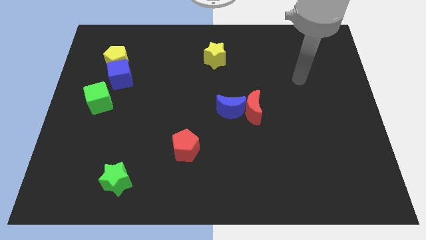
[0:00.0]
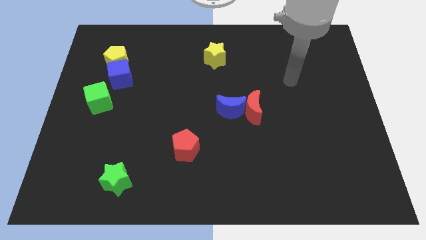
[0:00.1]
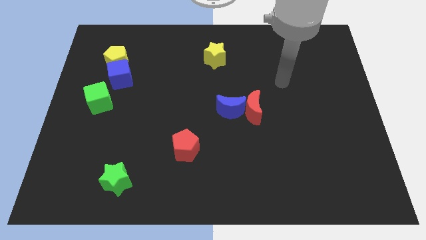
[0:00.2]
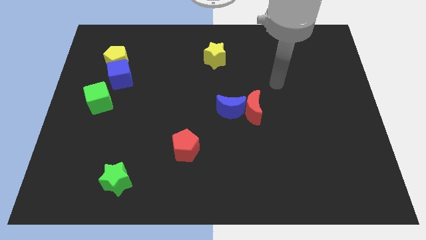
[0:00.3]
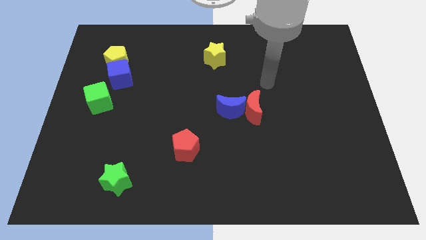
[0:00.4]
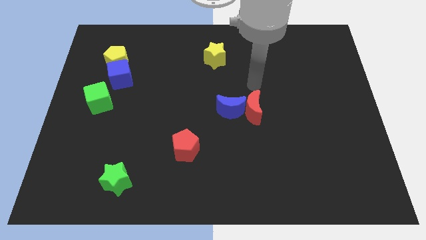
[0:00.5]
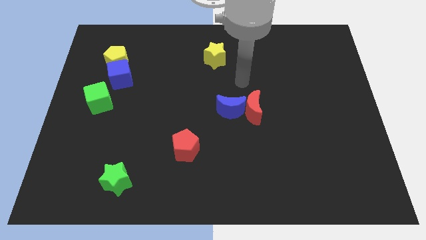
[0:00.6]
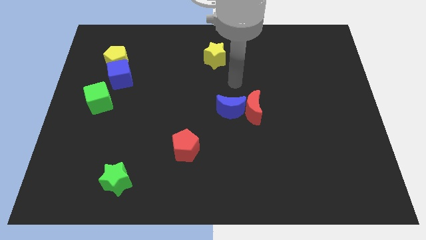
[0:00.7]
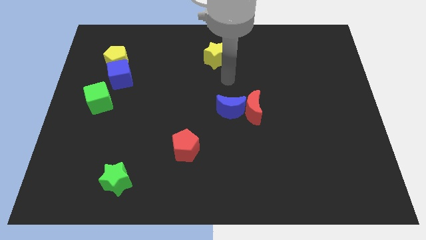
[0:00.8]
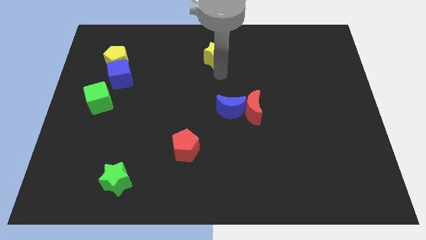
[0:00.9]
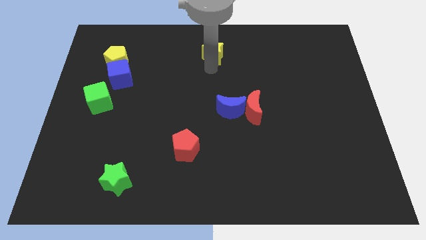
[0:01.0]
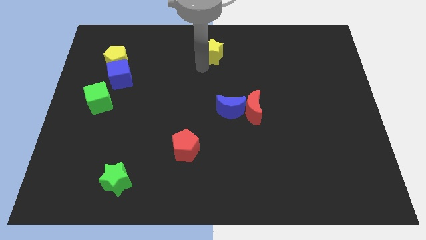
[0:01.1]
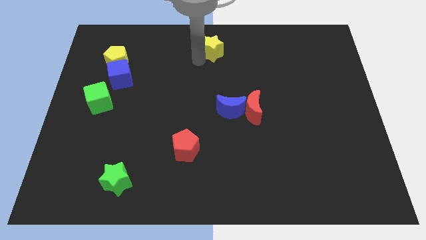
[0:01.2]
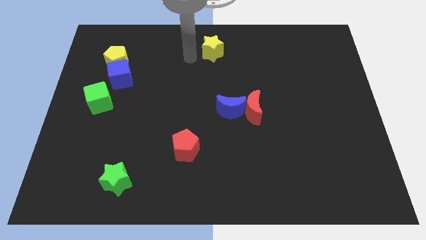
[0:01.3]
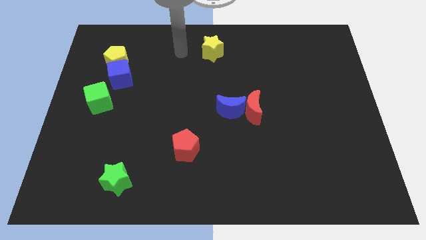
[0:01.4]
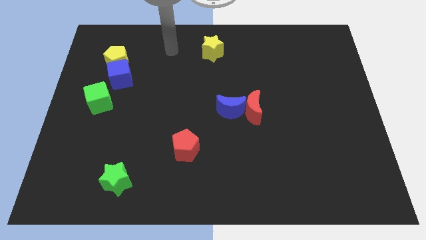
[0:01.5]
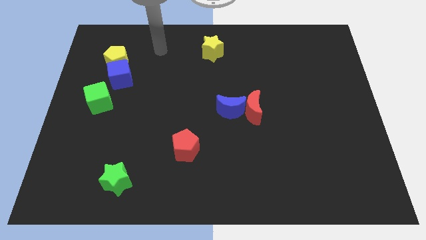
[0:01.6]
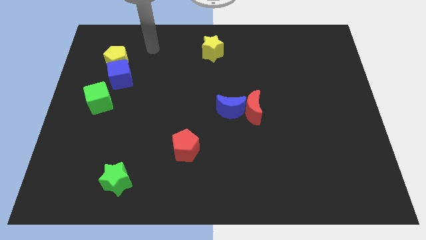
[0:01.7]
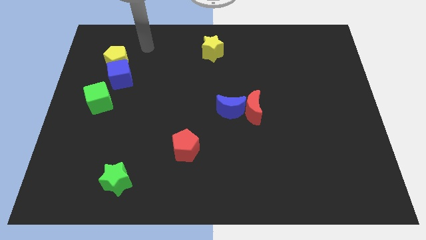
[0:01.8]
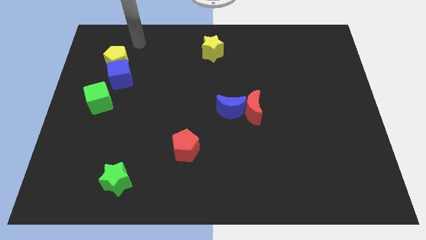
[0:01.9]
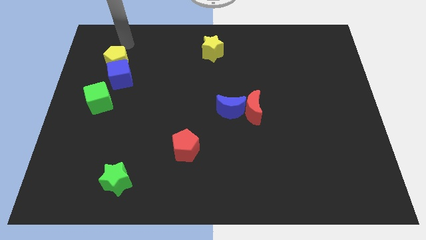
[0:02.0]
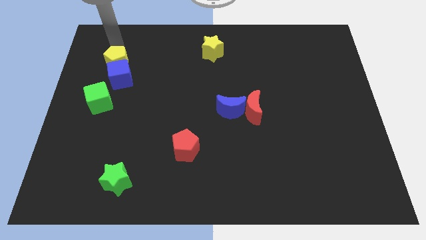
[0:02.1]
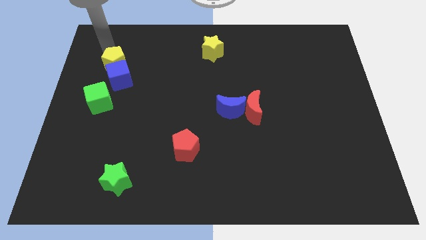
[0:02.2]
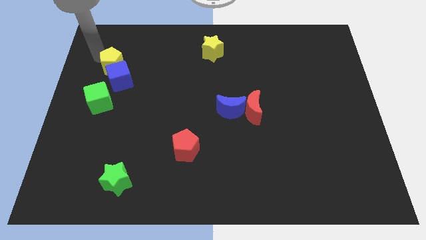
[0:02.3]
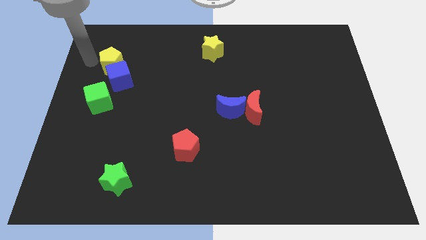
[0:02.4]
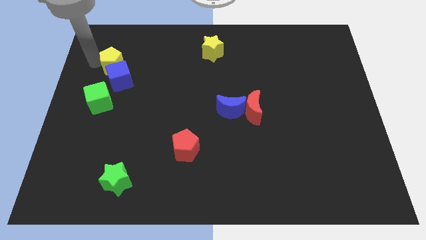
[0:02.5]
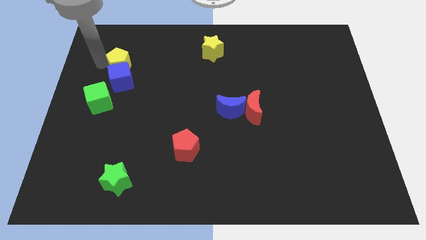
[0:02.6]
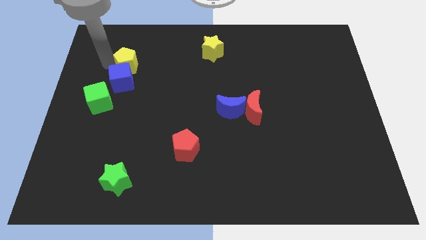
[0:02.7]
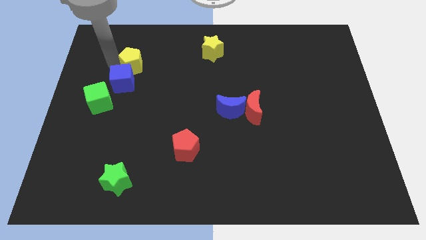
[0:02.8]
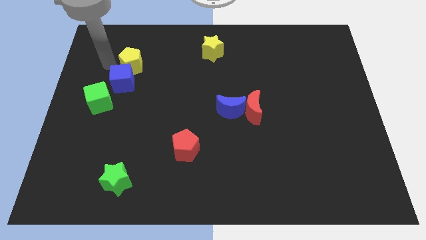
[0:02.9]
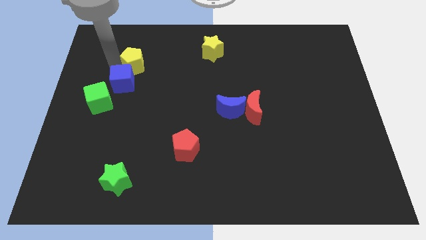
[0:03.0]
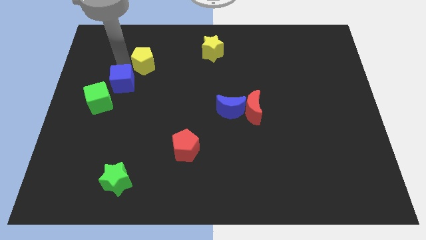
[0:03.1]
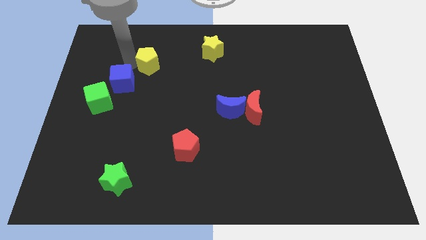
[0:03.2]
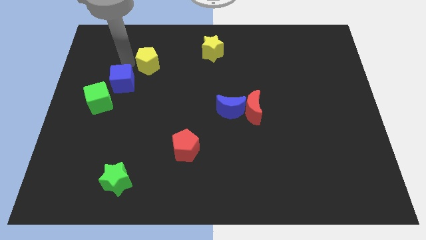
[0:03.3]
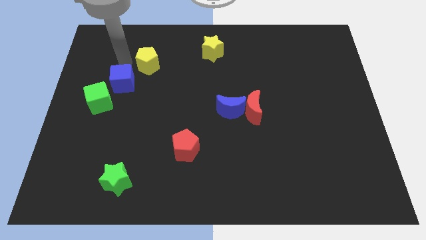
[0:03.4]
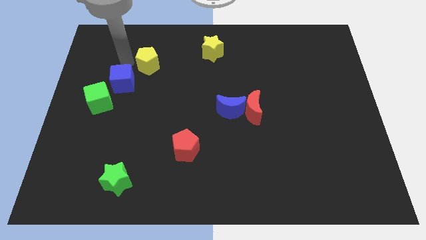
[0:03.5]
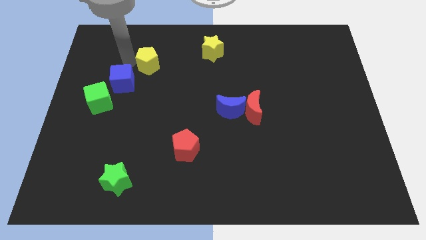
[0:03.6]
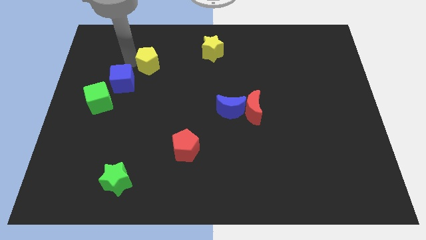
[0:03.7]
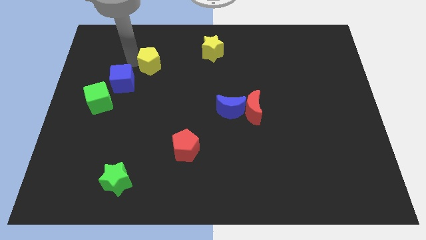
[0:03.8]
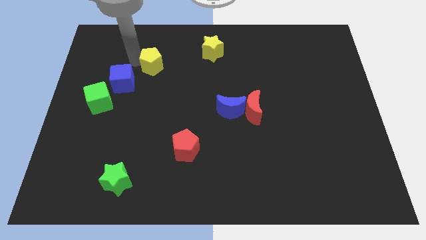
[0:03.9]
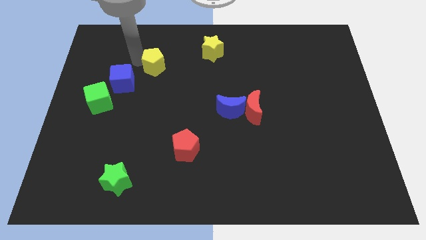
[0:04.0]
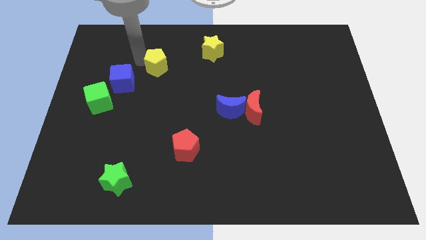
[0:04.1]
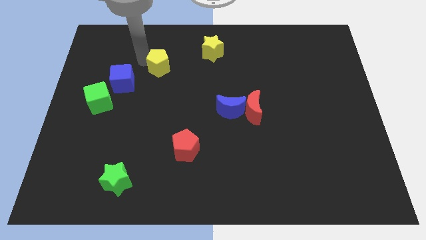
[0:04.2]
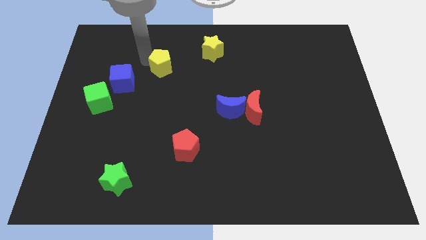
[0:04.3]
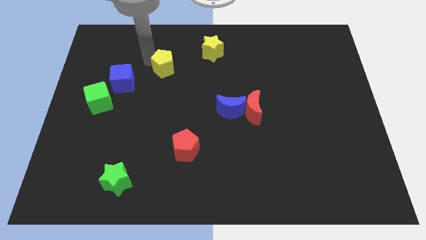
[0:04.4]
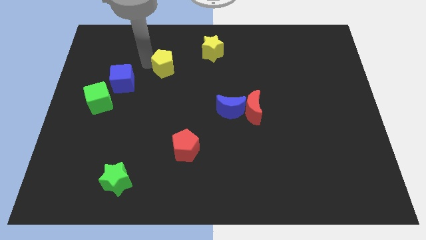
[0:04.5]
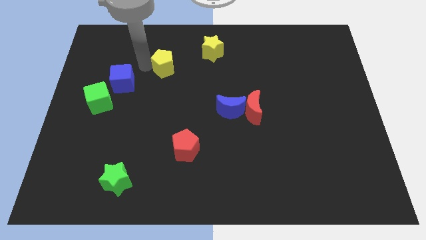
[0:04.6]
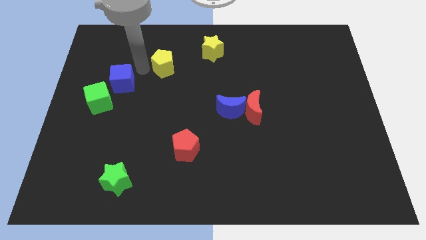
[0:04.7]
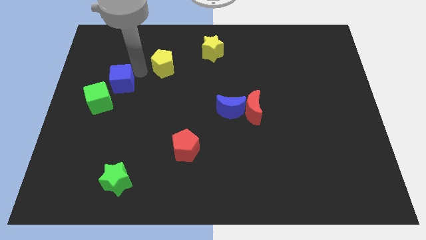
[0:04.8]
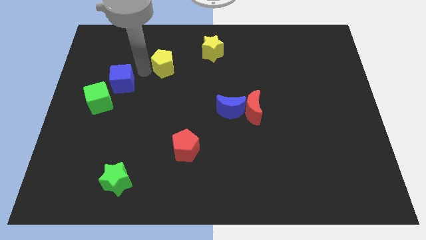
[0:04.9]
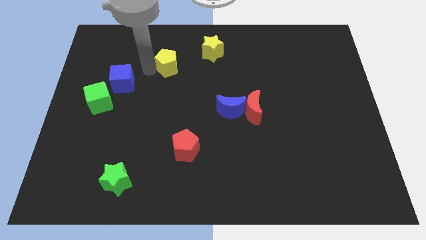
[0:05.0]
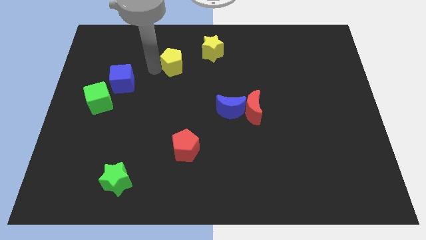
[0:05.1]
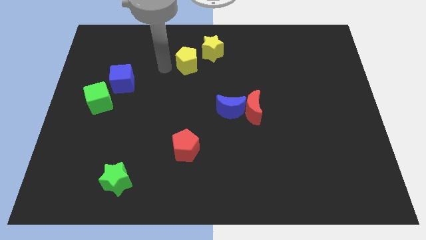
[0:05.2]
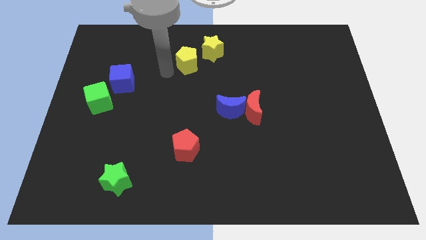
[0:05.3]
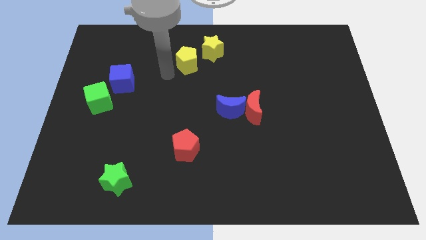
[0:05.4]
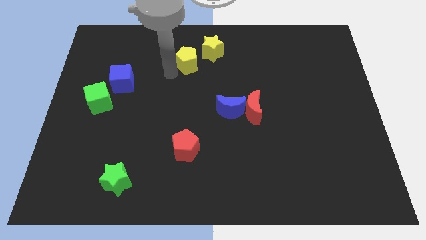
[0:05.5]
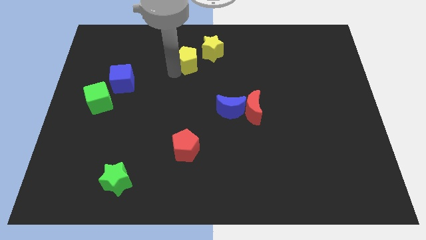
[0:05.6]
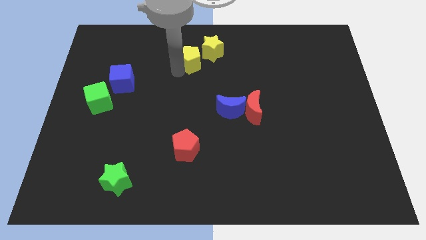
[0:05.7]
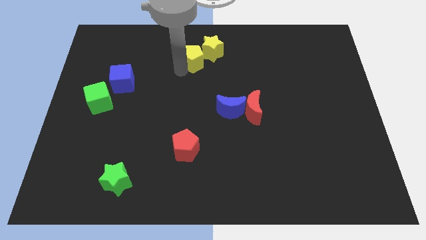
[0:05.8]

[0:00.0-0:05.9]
slide the yellow pentagon towards the yellow star

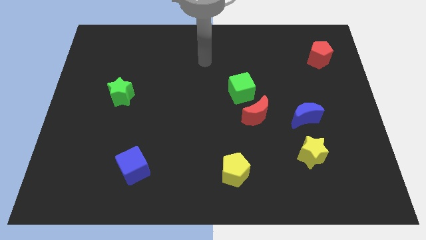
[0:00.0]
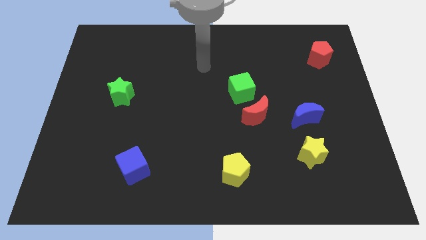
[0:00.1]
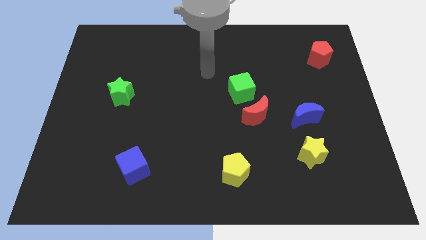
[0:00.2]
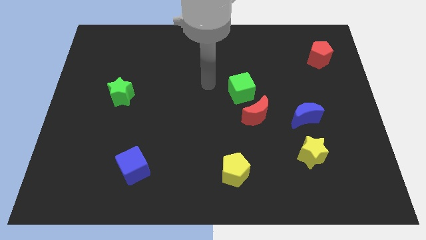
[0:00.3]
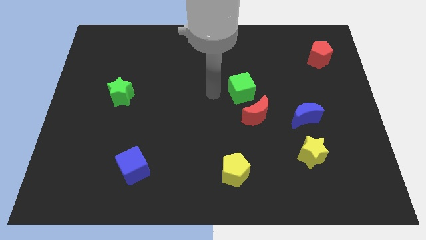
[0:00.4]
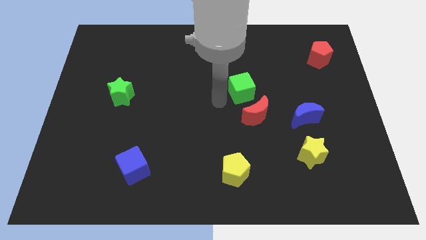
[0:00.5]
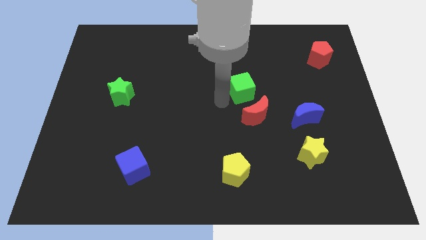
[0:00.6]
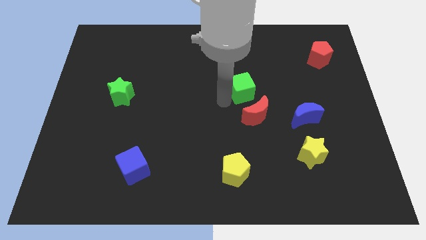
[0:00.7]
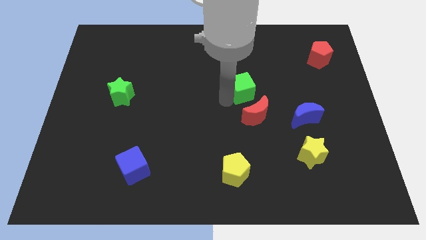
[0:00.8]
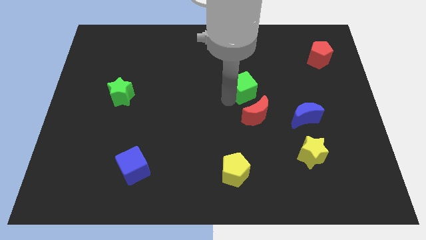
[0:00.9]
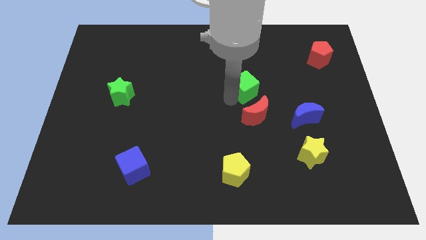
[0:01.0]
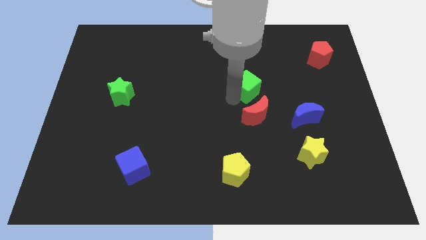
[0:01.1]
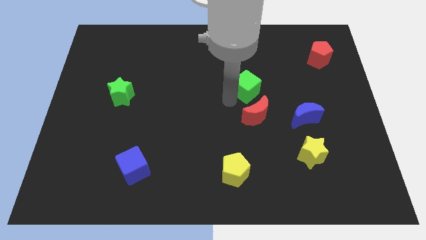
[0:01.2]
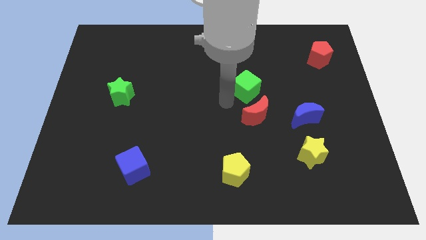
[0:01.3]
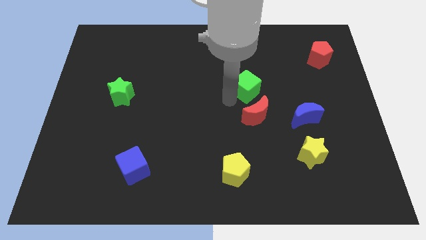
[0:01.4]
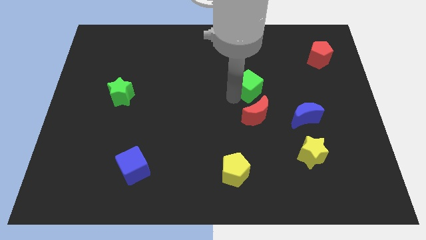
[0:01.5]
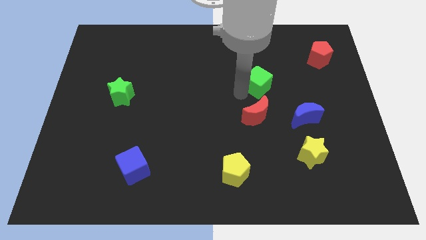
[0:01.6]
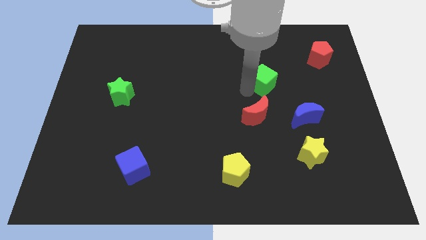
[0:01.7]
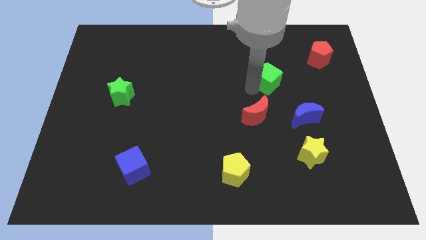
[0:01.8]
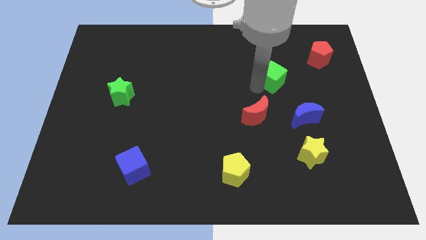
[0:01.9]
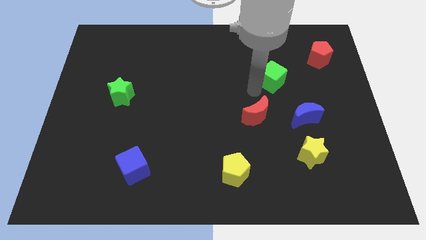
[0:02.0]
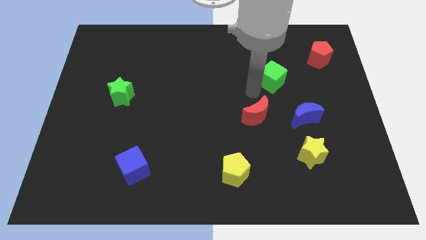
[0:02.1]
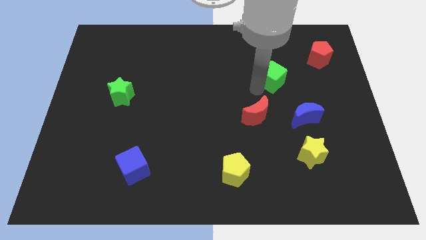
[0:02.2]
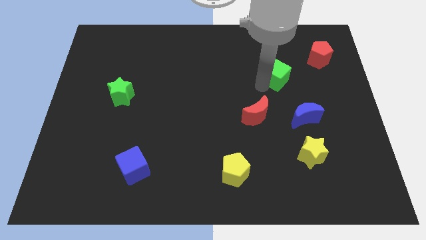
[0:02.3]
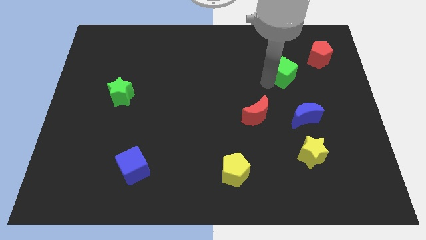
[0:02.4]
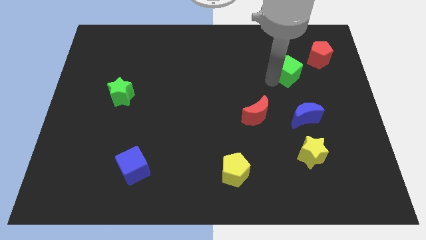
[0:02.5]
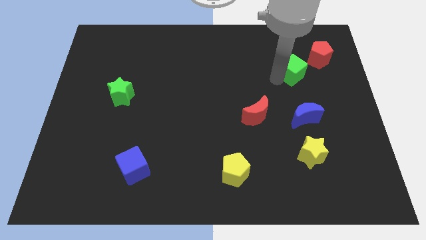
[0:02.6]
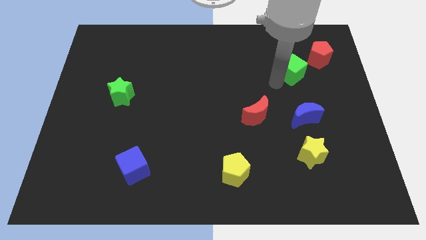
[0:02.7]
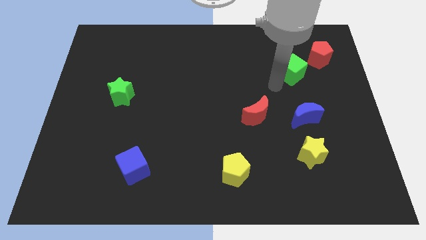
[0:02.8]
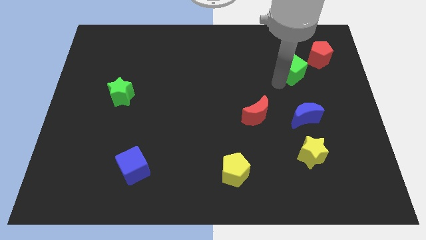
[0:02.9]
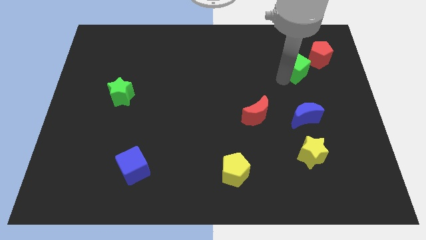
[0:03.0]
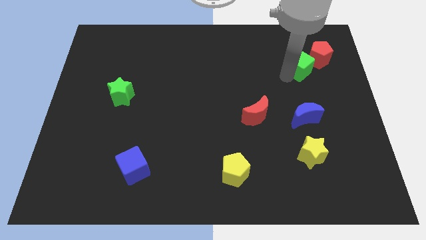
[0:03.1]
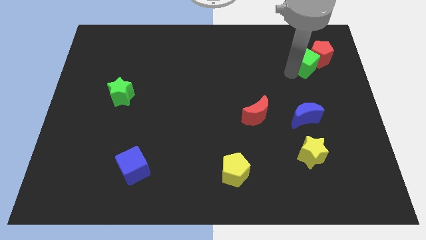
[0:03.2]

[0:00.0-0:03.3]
move the green cube next to the red pentagon
